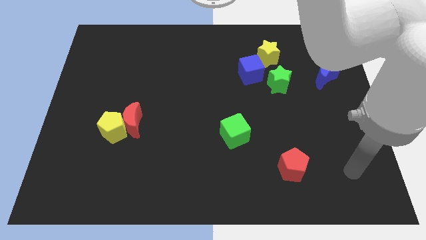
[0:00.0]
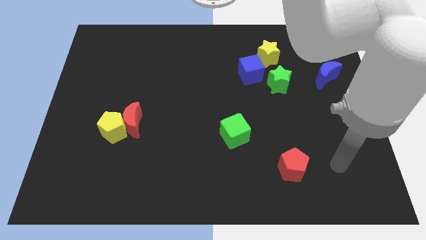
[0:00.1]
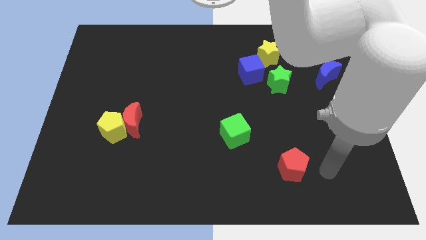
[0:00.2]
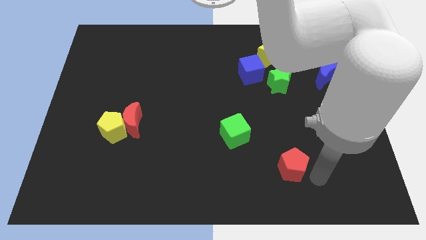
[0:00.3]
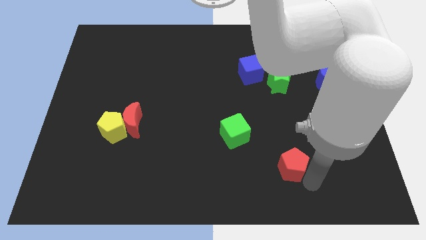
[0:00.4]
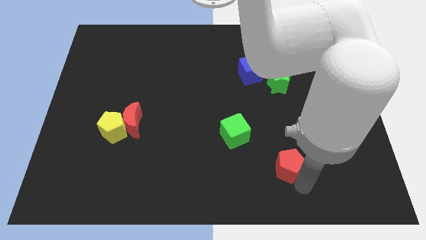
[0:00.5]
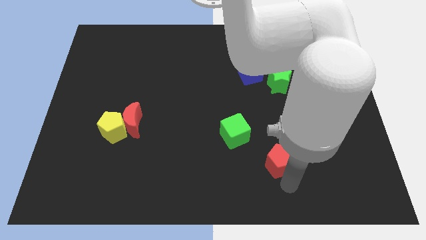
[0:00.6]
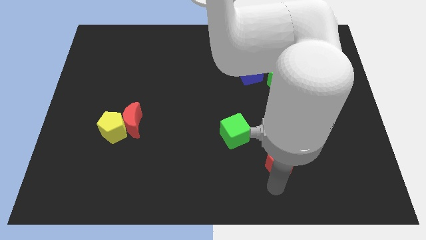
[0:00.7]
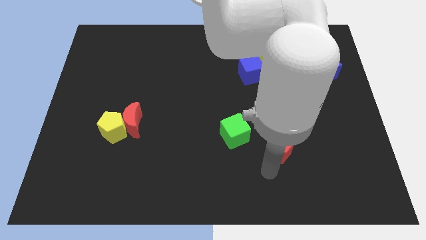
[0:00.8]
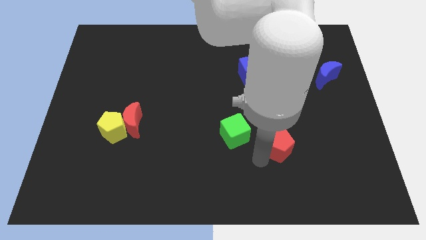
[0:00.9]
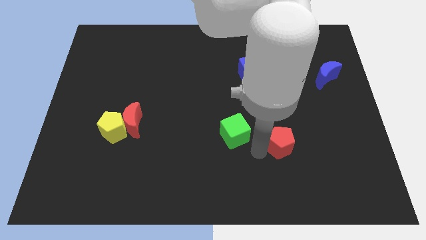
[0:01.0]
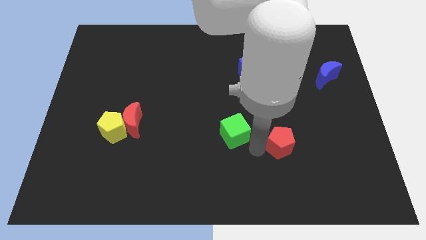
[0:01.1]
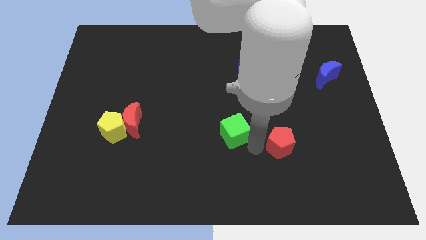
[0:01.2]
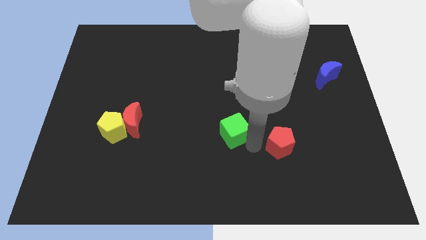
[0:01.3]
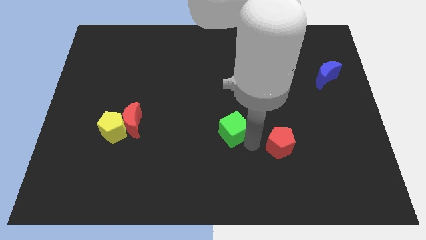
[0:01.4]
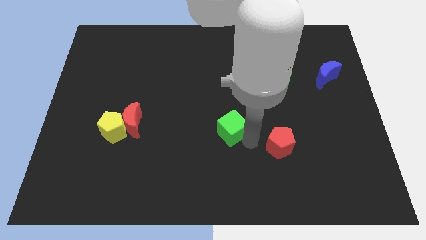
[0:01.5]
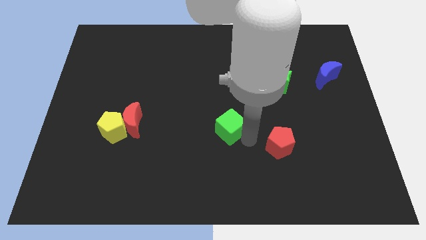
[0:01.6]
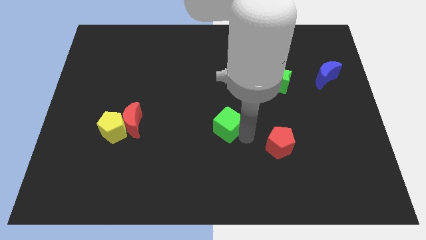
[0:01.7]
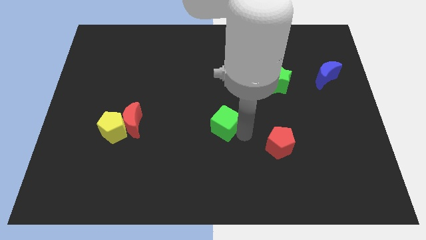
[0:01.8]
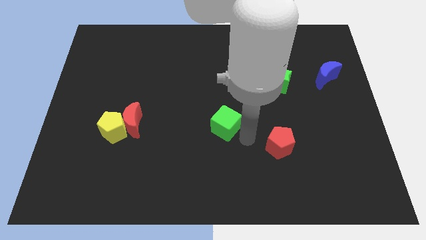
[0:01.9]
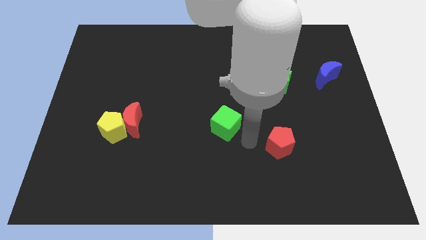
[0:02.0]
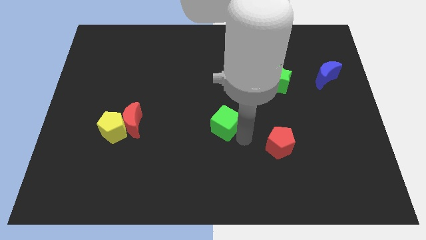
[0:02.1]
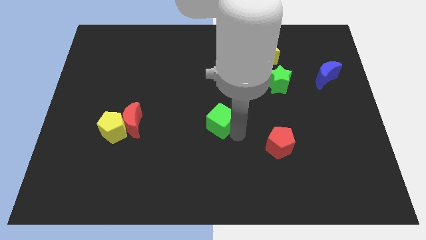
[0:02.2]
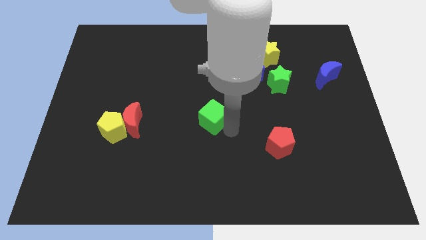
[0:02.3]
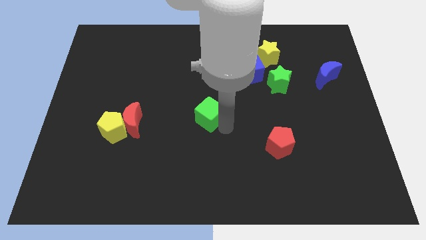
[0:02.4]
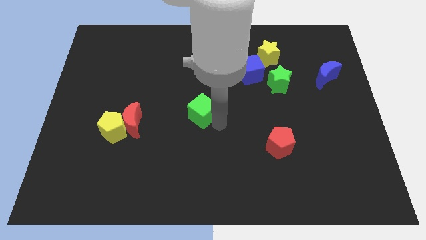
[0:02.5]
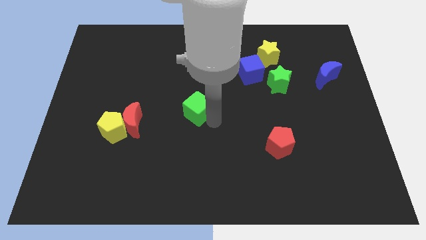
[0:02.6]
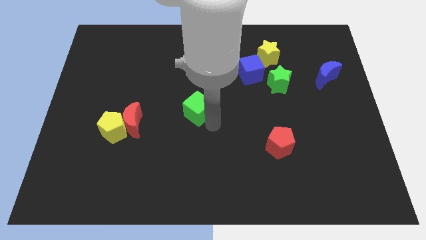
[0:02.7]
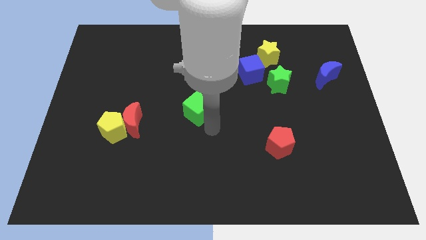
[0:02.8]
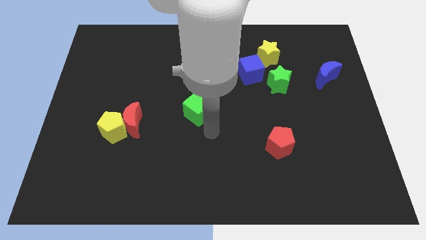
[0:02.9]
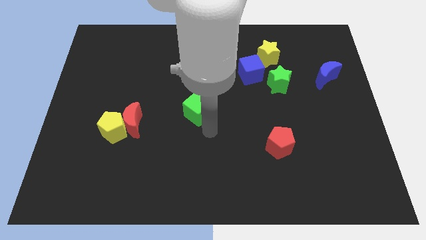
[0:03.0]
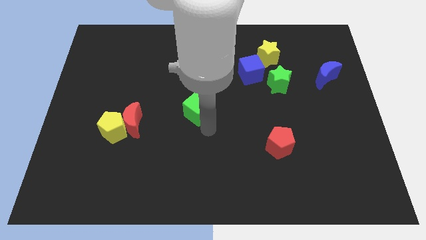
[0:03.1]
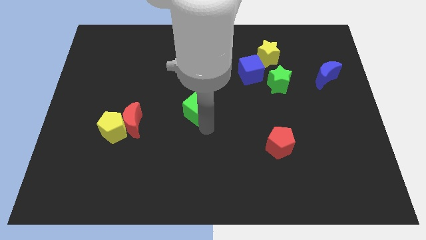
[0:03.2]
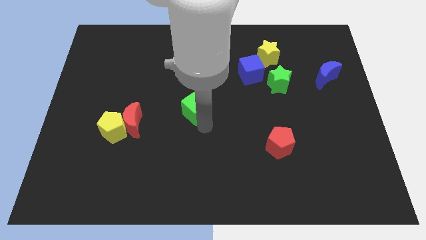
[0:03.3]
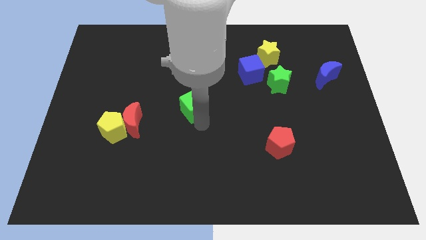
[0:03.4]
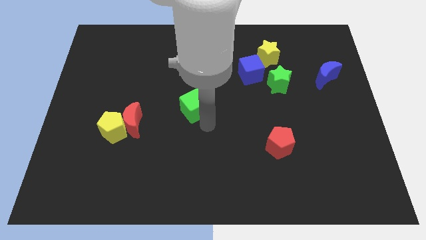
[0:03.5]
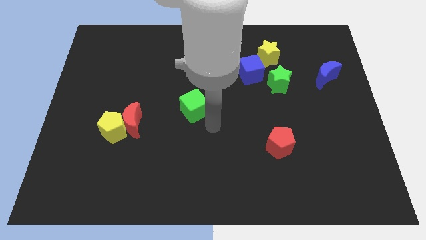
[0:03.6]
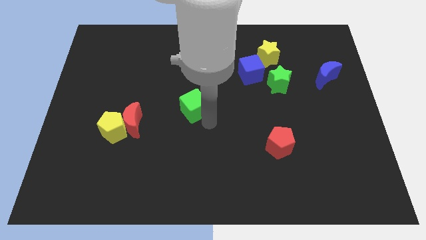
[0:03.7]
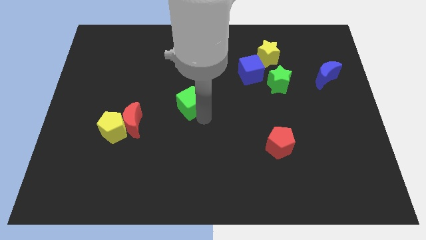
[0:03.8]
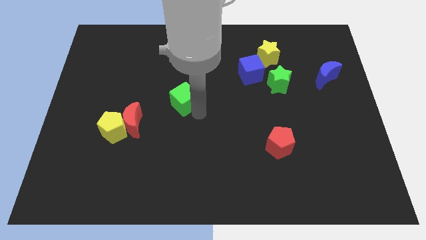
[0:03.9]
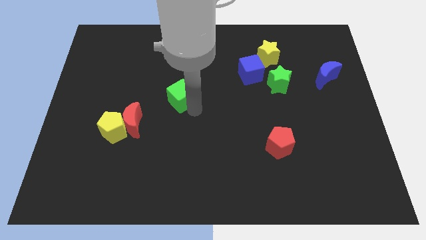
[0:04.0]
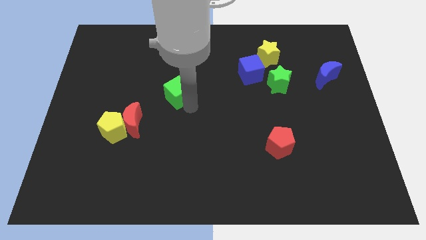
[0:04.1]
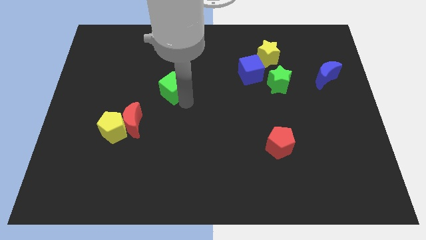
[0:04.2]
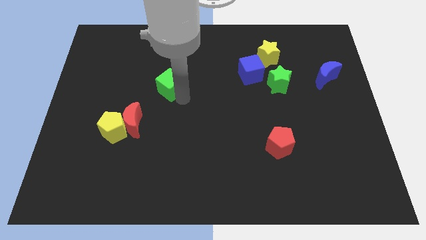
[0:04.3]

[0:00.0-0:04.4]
slide the green cube upwards and left

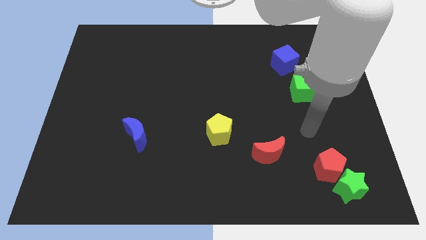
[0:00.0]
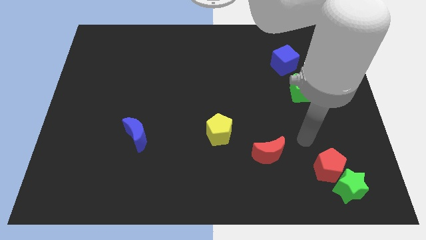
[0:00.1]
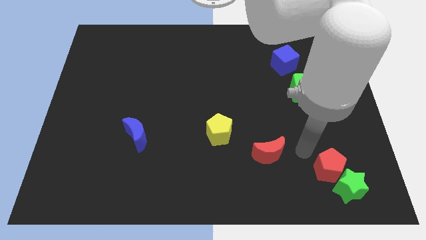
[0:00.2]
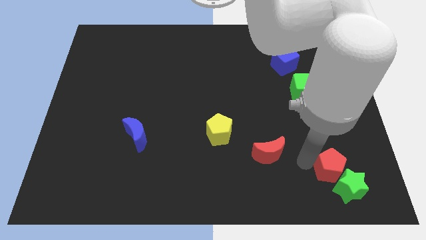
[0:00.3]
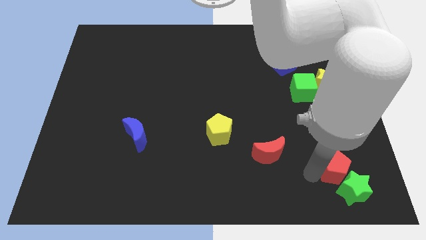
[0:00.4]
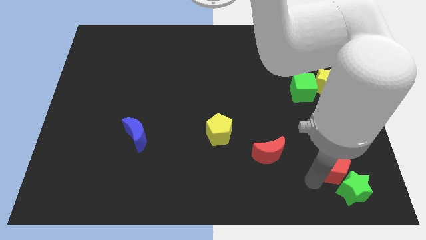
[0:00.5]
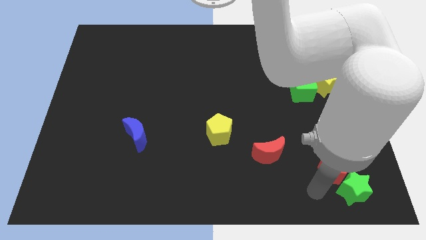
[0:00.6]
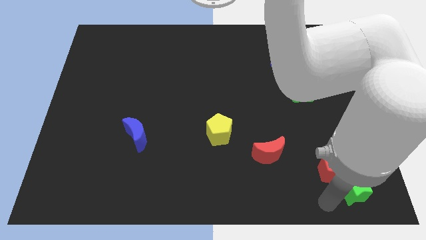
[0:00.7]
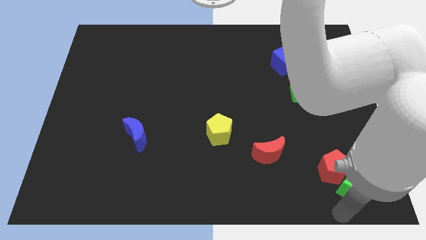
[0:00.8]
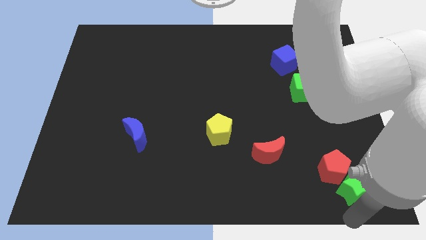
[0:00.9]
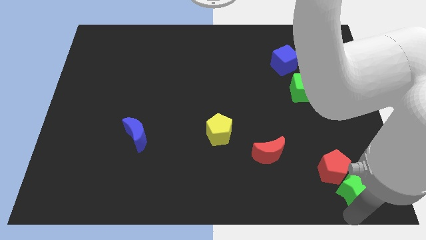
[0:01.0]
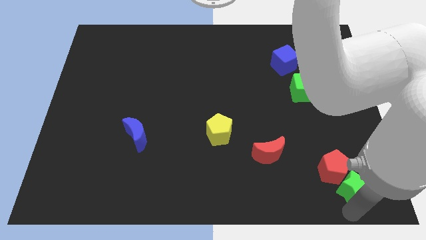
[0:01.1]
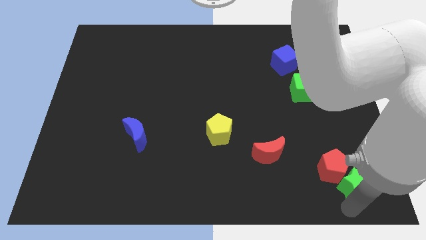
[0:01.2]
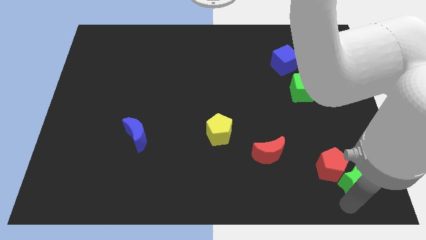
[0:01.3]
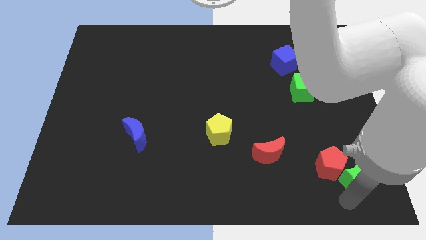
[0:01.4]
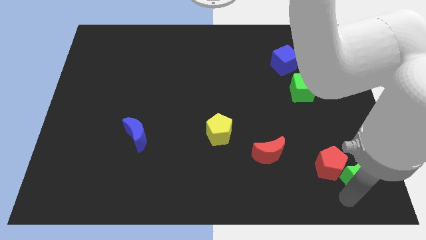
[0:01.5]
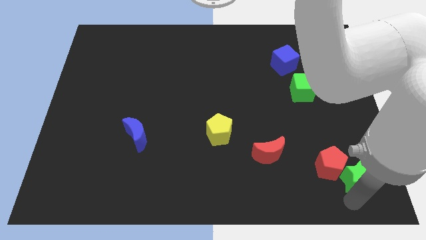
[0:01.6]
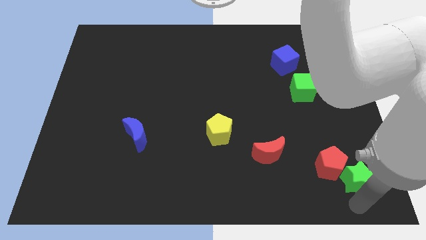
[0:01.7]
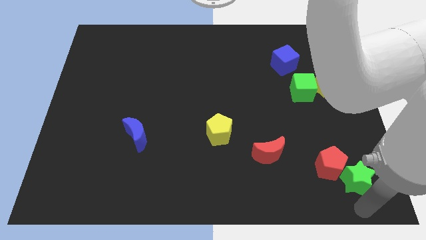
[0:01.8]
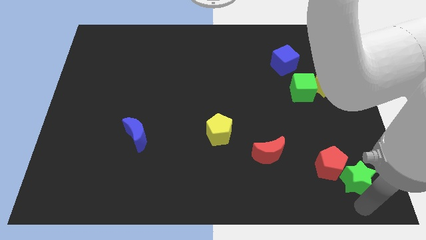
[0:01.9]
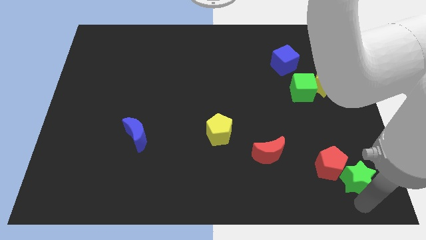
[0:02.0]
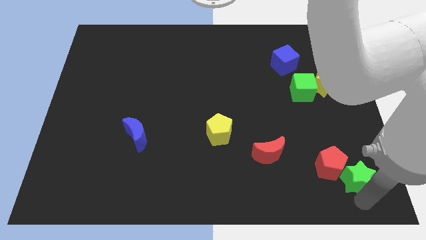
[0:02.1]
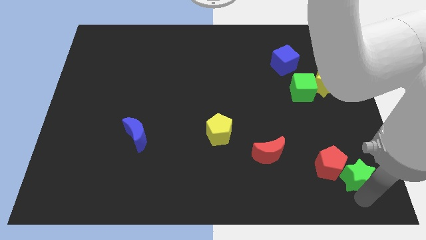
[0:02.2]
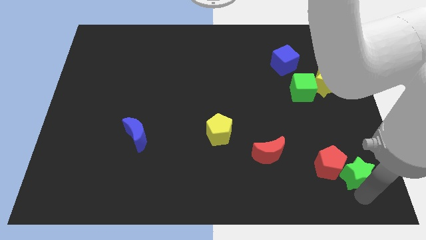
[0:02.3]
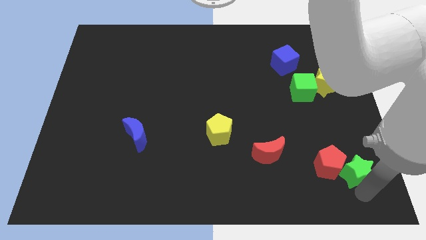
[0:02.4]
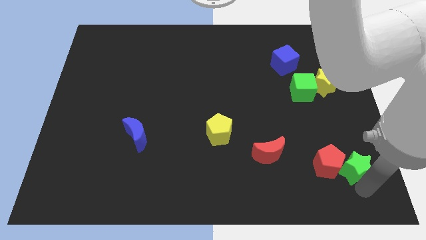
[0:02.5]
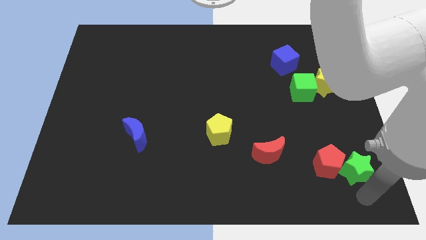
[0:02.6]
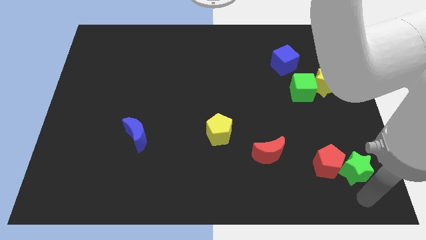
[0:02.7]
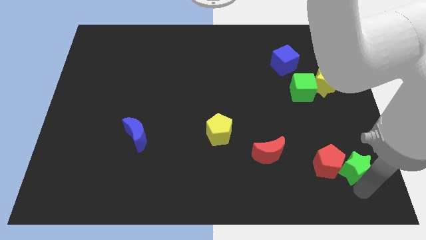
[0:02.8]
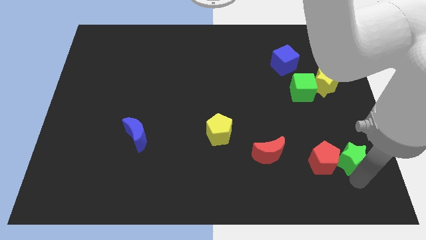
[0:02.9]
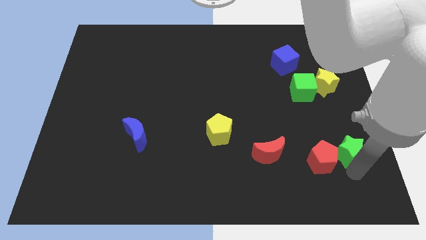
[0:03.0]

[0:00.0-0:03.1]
slide the green star up a little bit

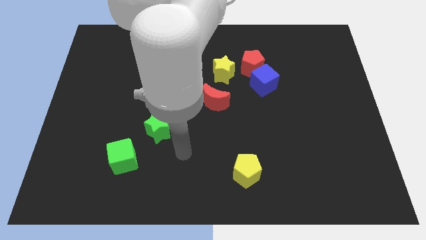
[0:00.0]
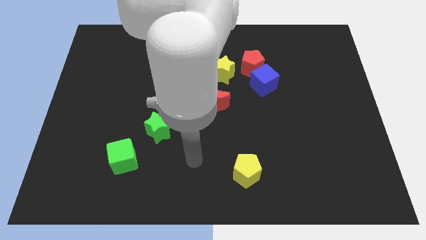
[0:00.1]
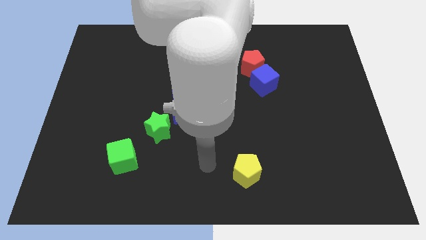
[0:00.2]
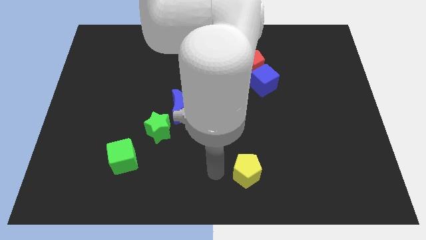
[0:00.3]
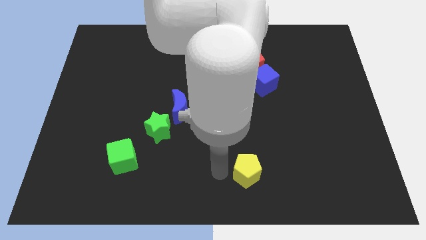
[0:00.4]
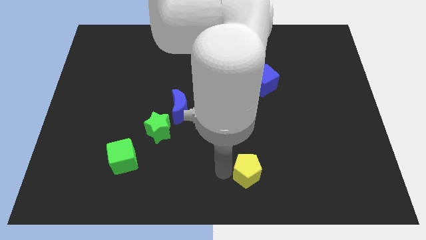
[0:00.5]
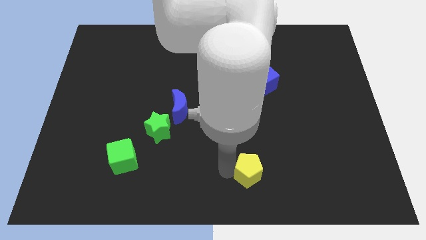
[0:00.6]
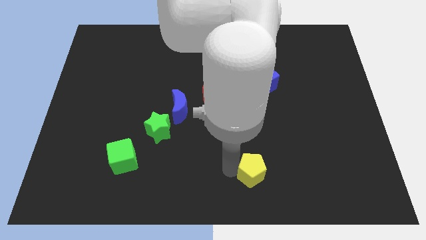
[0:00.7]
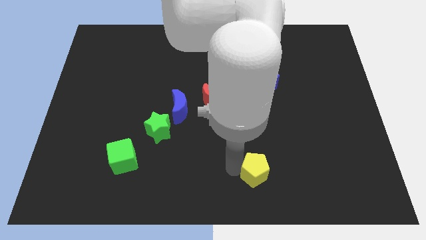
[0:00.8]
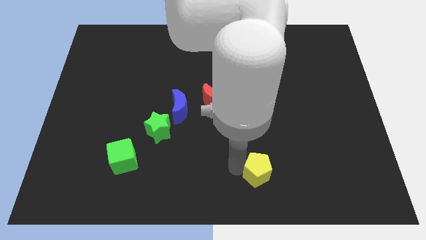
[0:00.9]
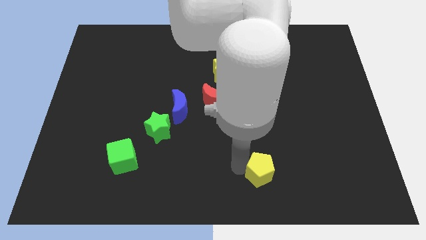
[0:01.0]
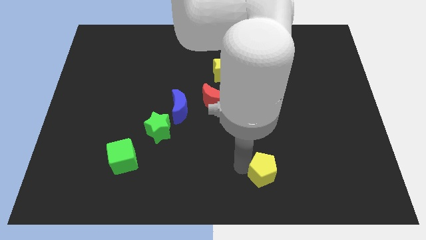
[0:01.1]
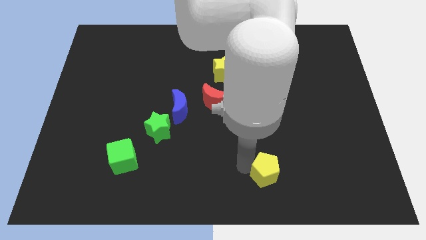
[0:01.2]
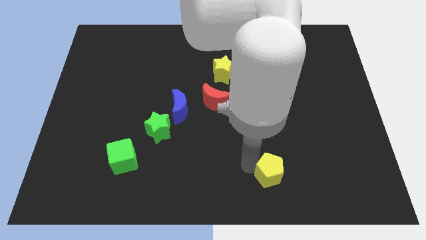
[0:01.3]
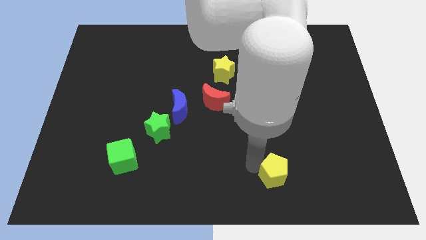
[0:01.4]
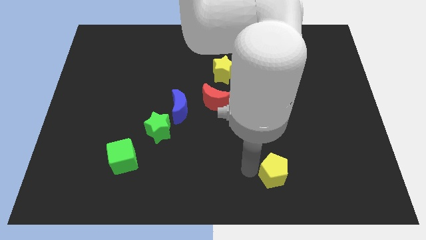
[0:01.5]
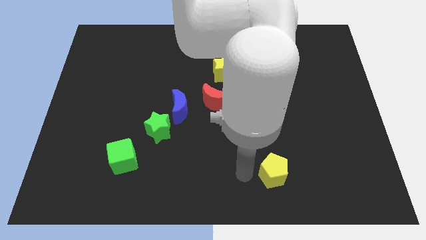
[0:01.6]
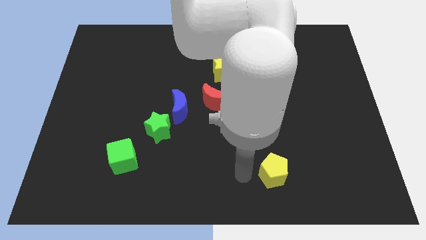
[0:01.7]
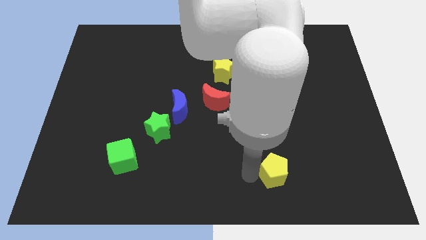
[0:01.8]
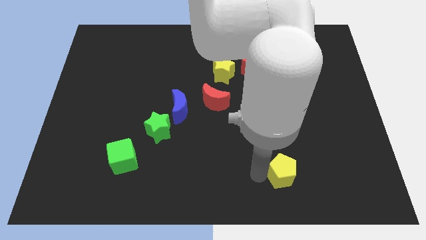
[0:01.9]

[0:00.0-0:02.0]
slightly slide the yellow pentagon to the right
